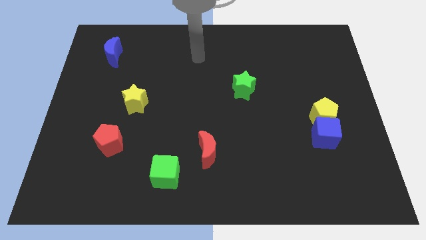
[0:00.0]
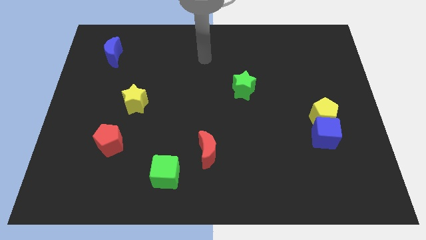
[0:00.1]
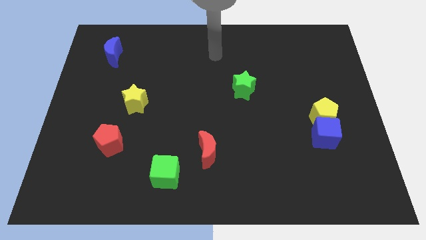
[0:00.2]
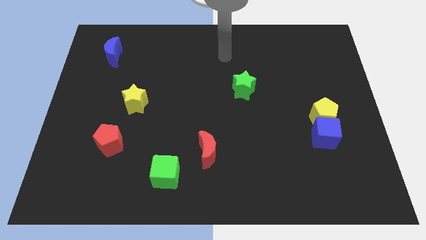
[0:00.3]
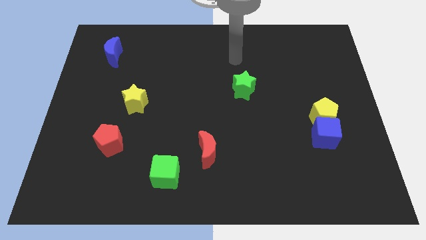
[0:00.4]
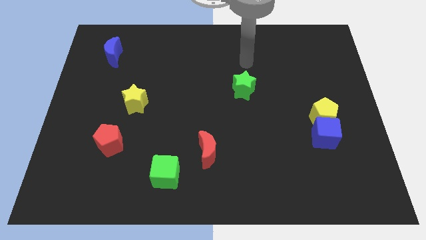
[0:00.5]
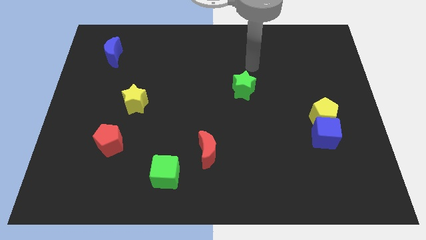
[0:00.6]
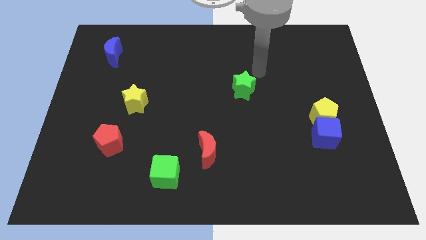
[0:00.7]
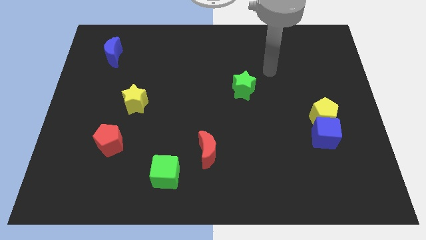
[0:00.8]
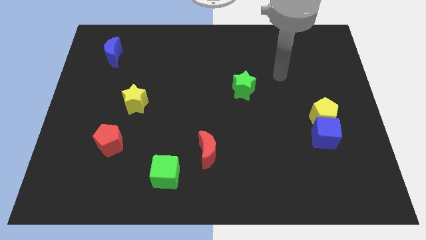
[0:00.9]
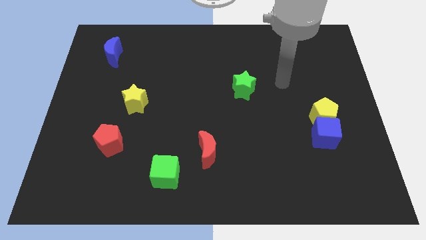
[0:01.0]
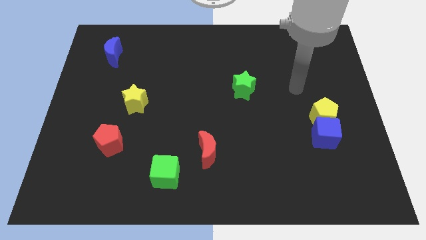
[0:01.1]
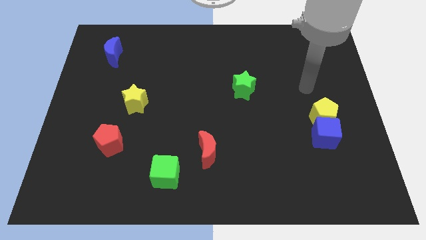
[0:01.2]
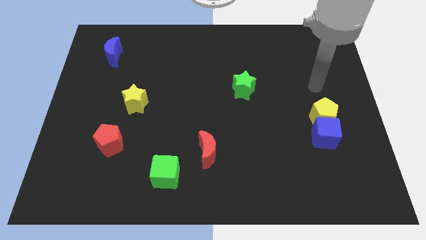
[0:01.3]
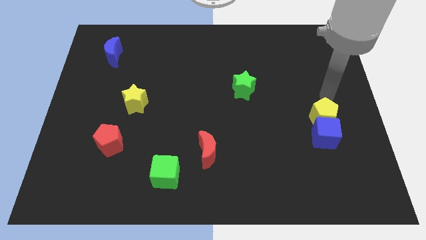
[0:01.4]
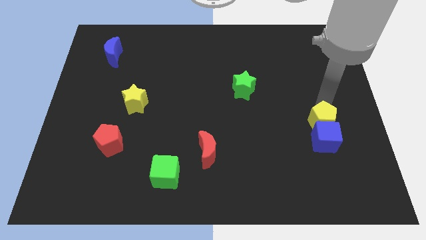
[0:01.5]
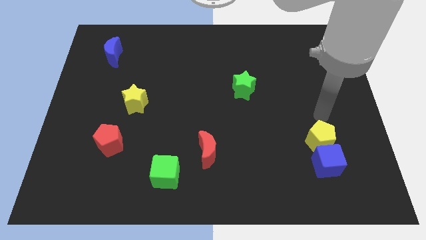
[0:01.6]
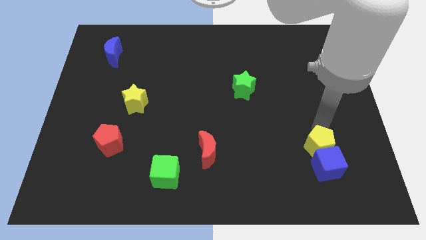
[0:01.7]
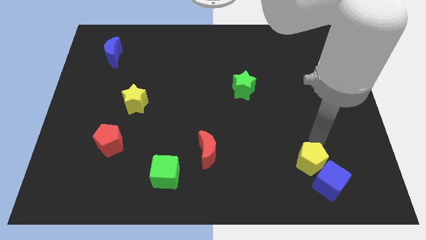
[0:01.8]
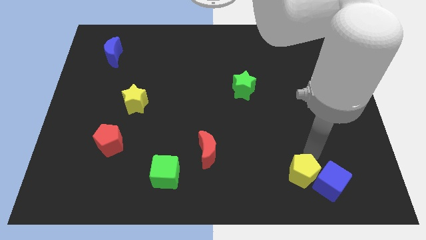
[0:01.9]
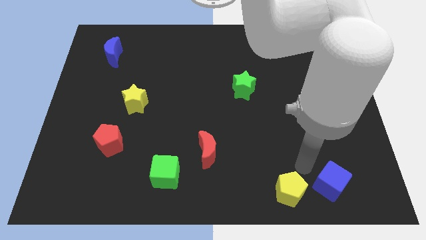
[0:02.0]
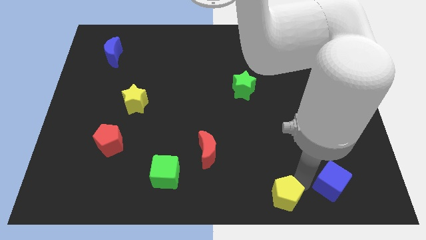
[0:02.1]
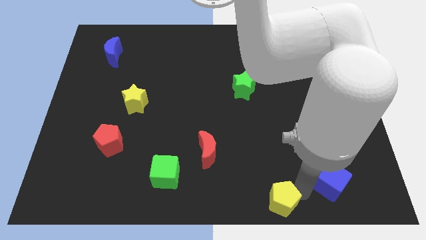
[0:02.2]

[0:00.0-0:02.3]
move the blue cube away from the yellow pentagon

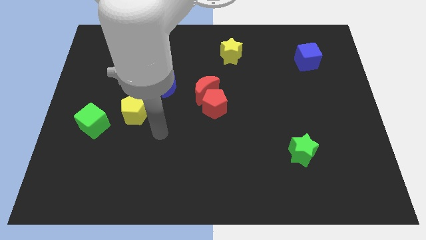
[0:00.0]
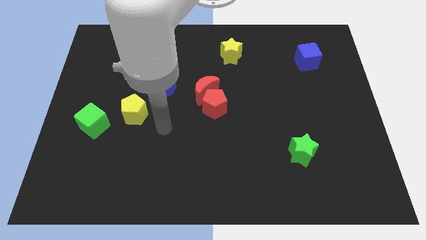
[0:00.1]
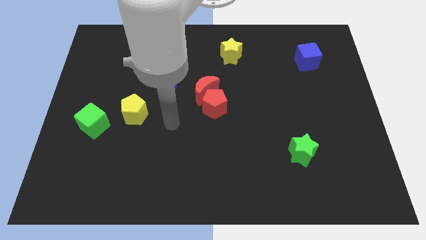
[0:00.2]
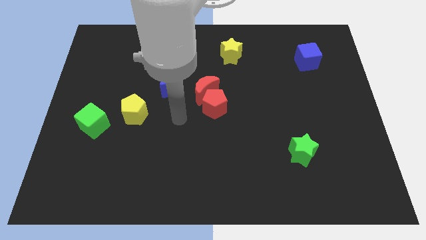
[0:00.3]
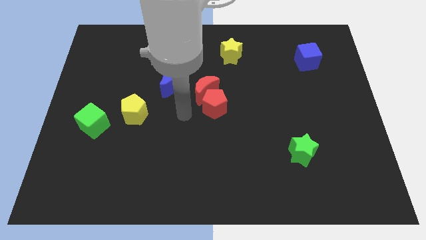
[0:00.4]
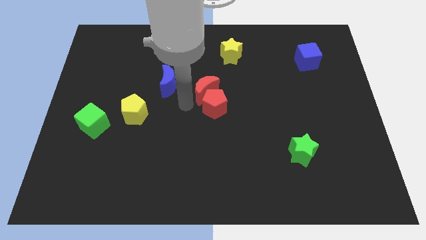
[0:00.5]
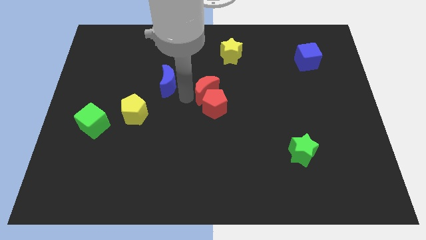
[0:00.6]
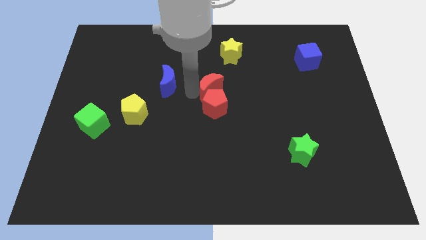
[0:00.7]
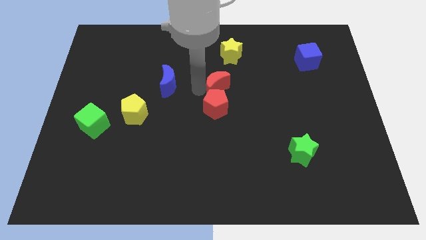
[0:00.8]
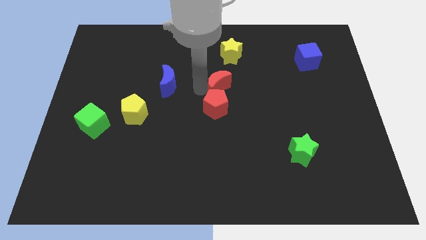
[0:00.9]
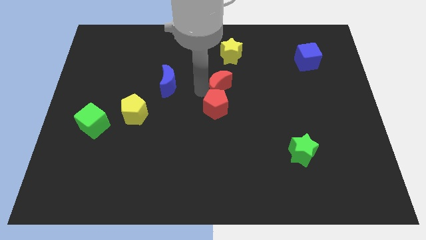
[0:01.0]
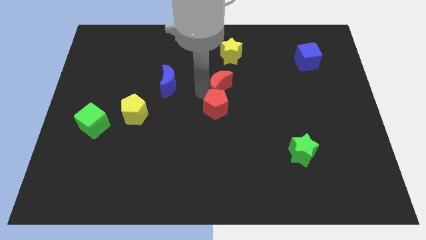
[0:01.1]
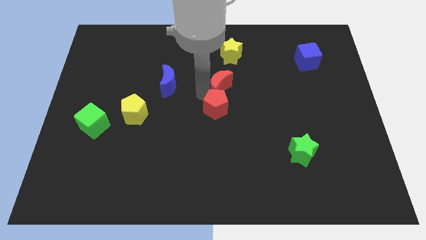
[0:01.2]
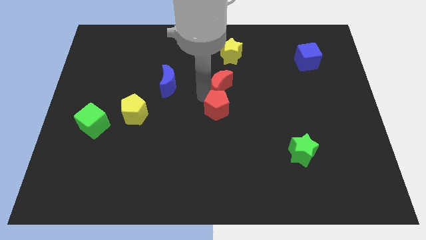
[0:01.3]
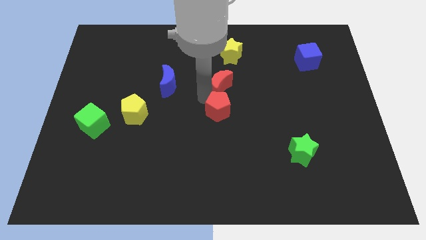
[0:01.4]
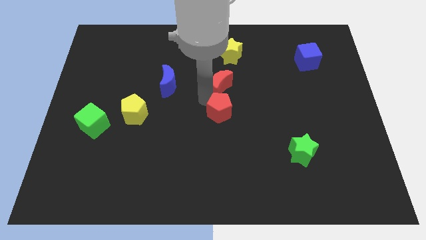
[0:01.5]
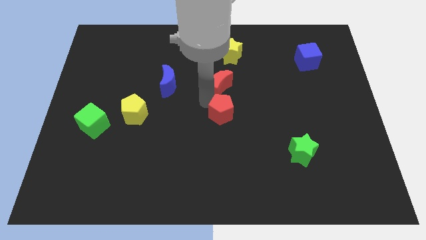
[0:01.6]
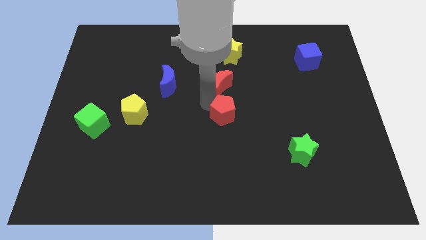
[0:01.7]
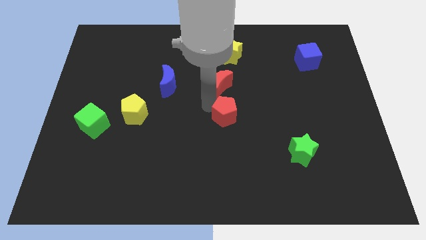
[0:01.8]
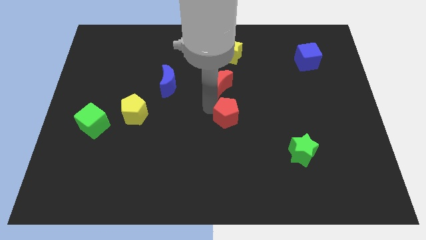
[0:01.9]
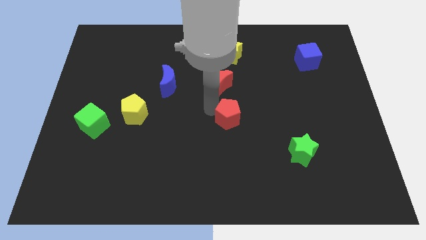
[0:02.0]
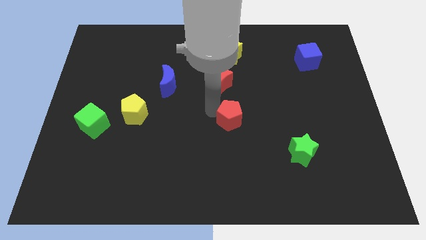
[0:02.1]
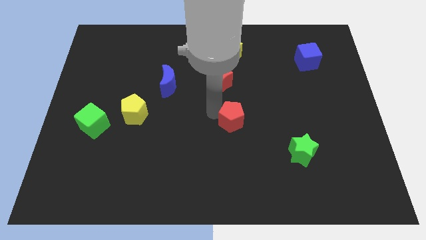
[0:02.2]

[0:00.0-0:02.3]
pull the red pentagon apart from the red moon

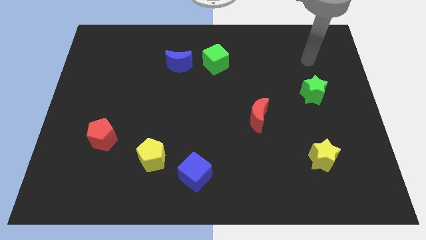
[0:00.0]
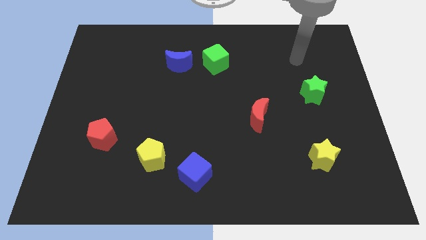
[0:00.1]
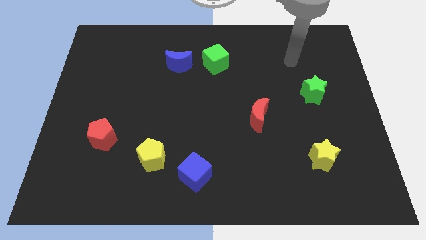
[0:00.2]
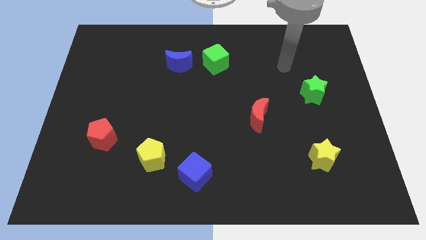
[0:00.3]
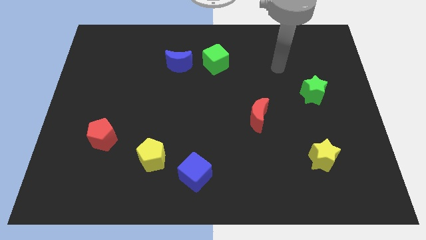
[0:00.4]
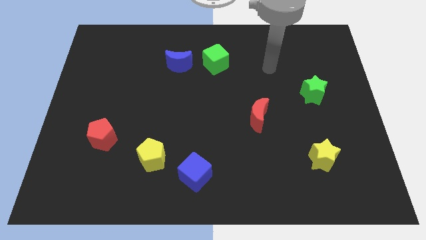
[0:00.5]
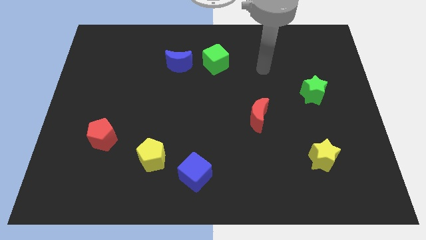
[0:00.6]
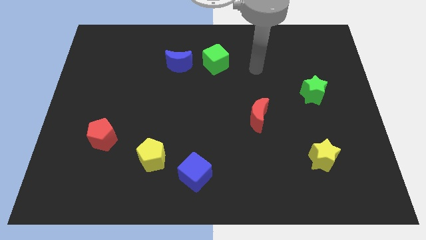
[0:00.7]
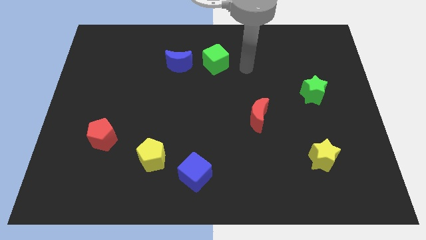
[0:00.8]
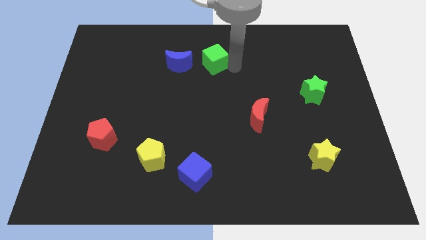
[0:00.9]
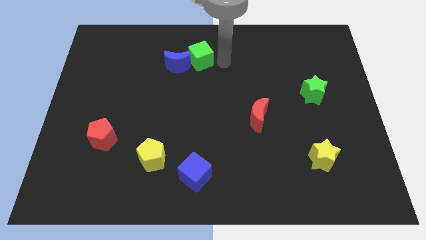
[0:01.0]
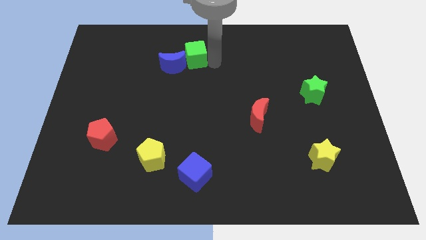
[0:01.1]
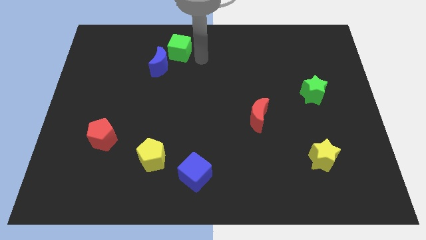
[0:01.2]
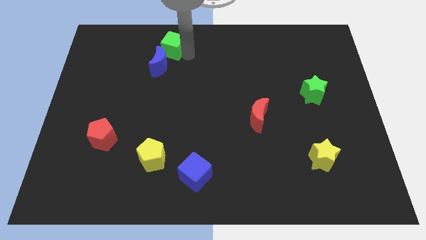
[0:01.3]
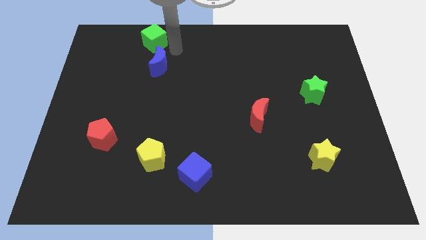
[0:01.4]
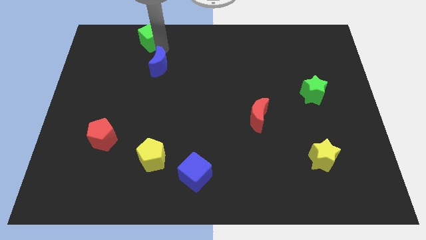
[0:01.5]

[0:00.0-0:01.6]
separate the blue moon from the green cube

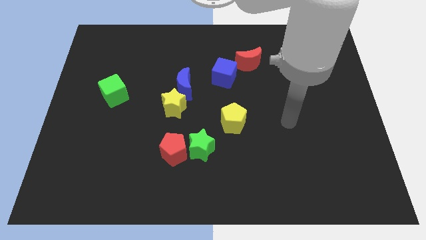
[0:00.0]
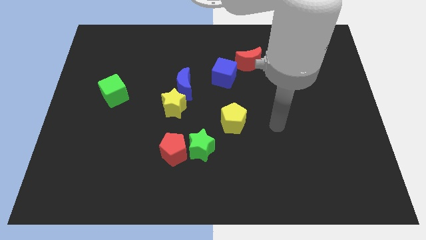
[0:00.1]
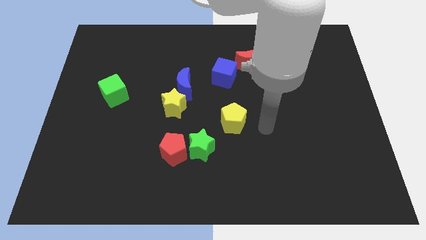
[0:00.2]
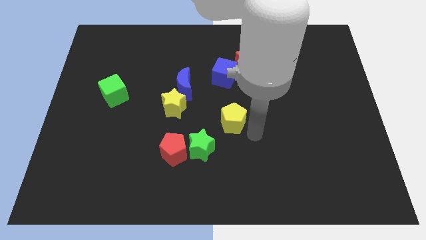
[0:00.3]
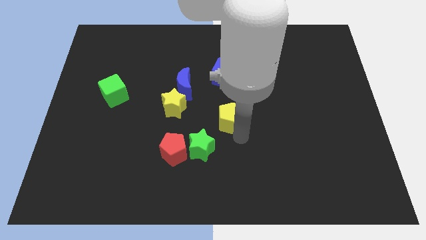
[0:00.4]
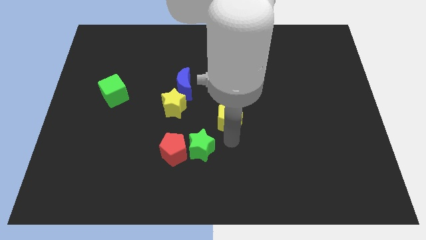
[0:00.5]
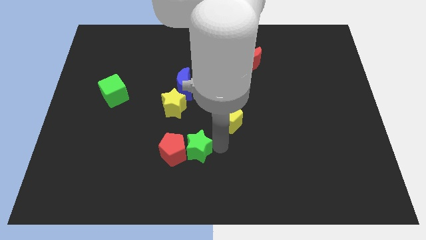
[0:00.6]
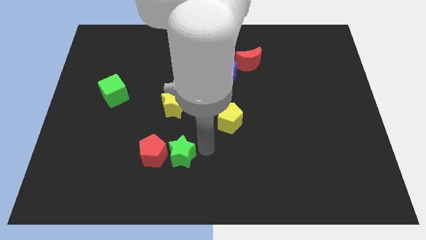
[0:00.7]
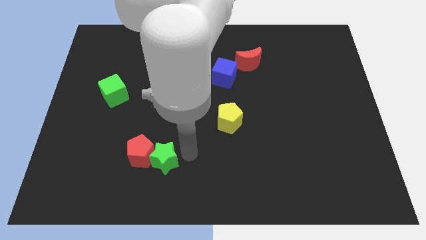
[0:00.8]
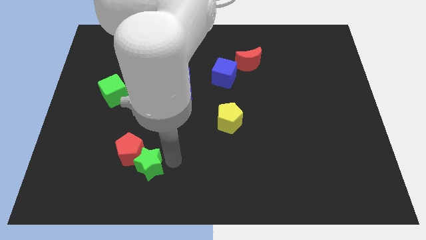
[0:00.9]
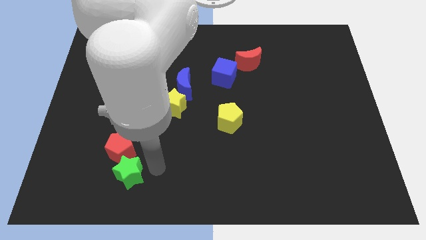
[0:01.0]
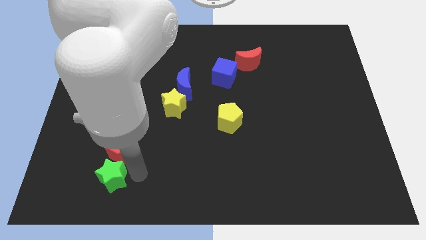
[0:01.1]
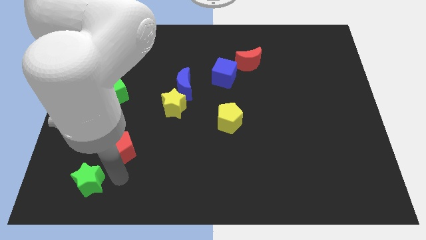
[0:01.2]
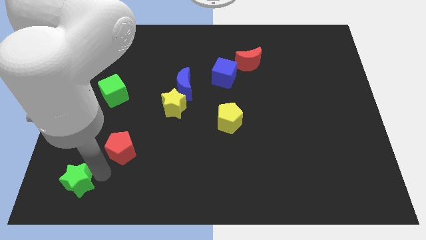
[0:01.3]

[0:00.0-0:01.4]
separate the red pentagon from the green star

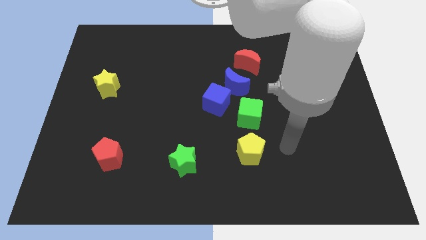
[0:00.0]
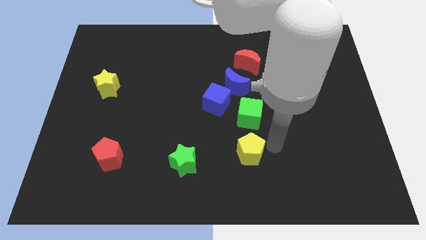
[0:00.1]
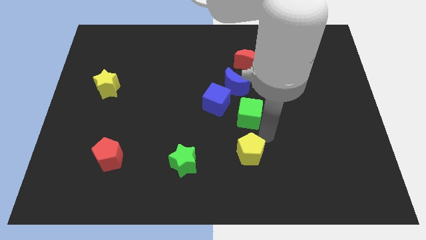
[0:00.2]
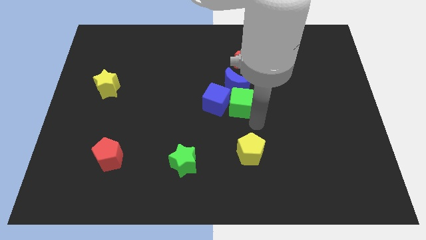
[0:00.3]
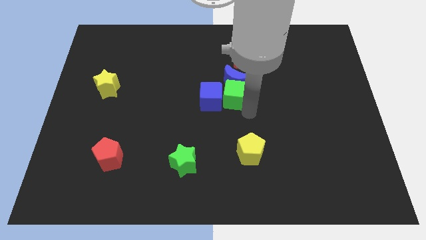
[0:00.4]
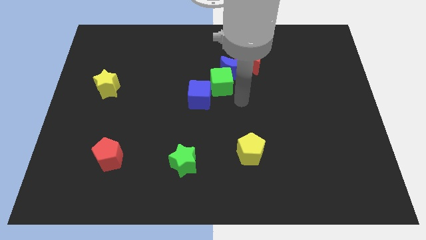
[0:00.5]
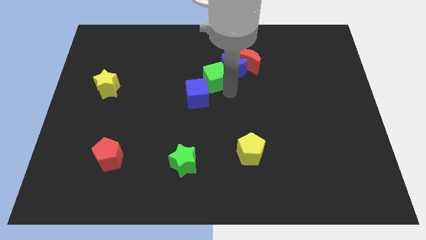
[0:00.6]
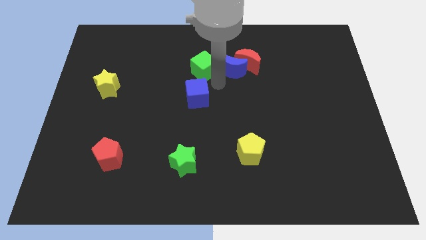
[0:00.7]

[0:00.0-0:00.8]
pull the blue cube apart from the blue moon and green cube

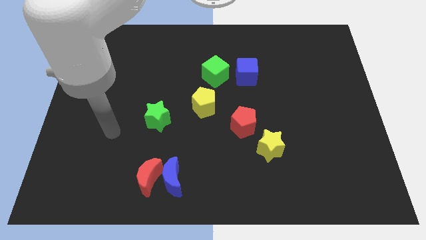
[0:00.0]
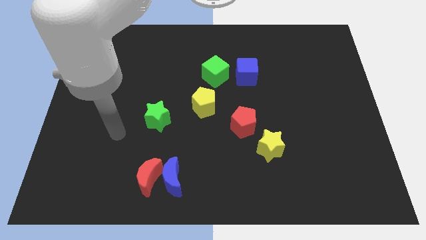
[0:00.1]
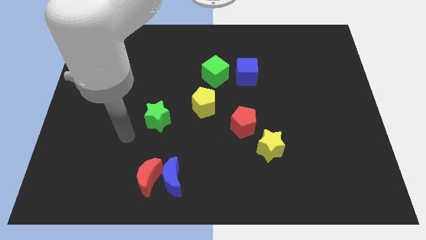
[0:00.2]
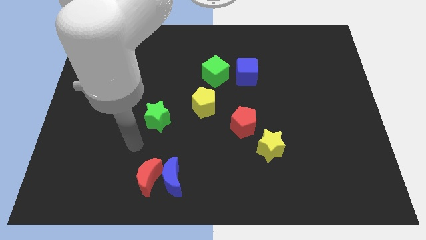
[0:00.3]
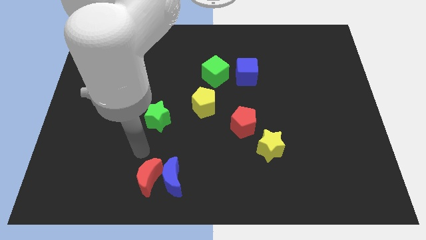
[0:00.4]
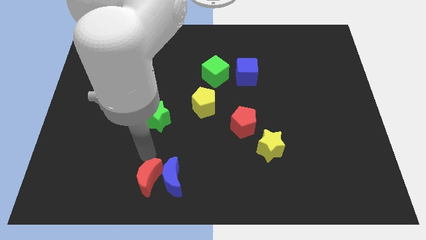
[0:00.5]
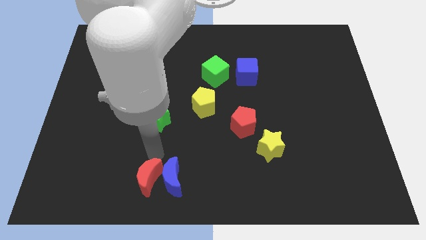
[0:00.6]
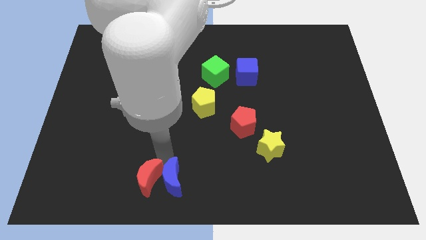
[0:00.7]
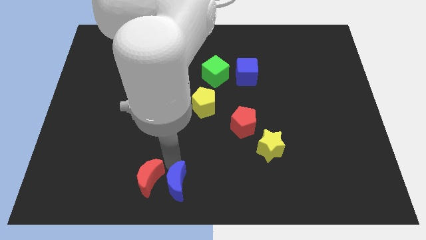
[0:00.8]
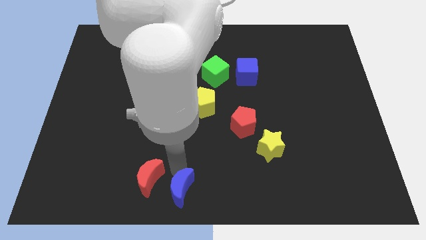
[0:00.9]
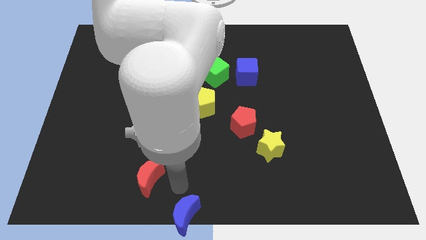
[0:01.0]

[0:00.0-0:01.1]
separate the red moon from the blue moon
